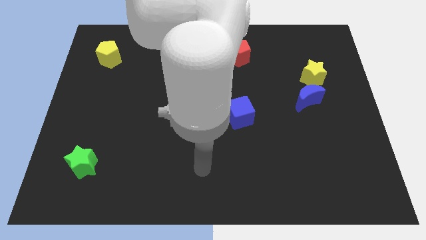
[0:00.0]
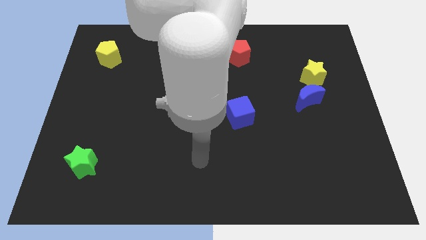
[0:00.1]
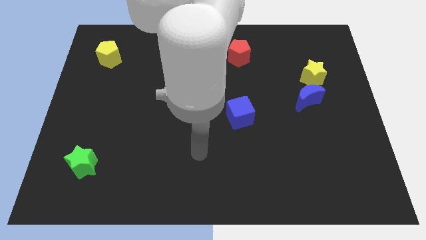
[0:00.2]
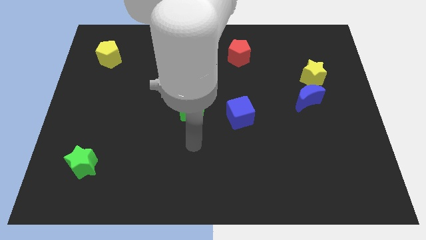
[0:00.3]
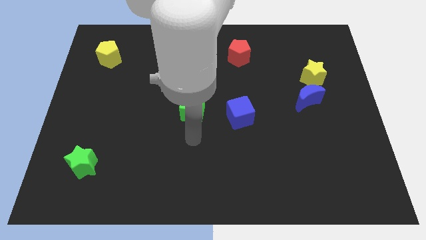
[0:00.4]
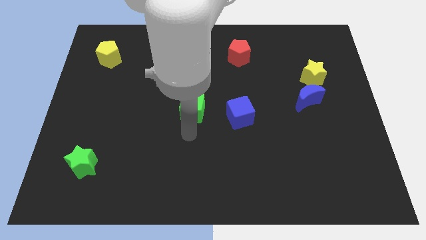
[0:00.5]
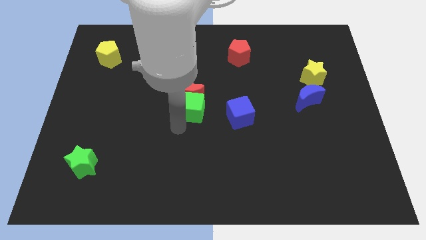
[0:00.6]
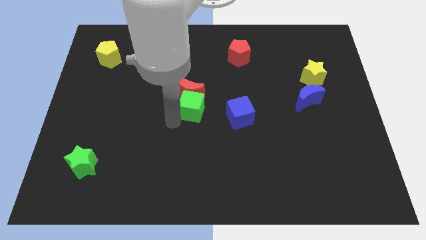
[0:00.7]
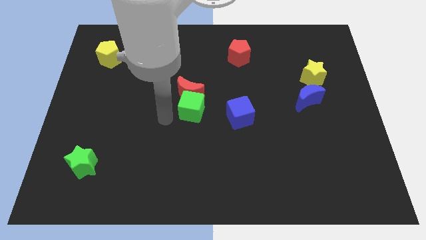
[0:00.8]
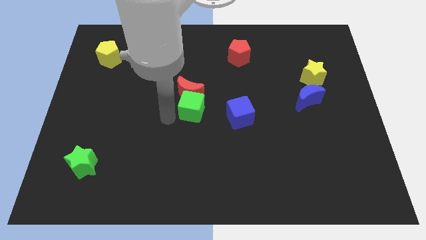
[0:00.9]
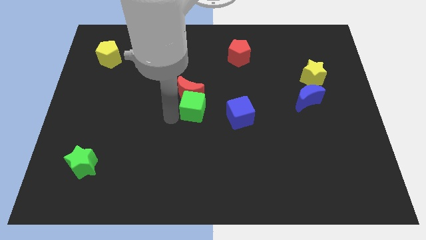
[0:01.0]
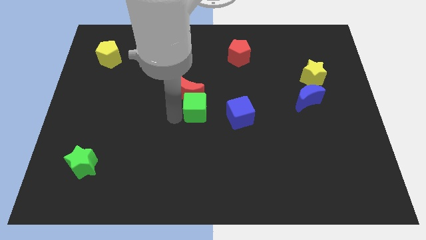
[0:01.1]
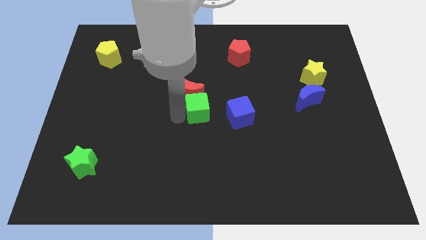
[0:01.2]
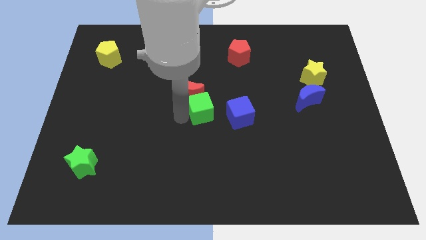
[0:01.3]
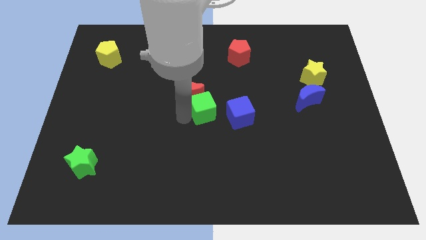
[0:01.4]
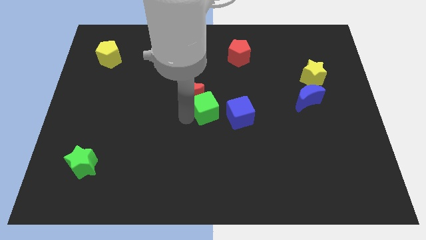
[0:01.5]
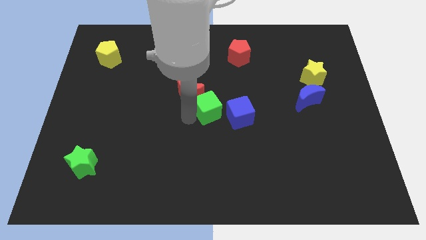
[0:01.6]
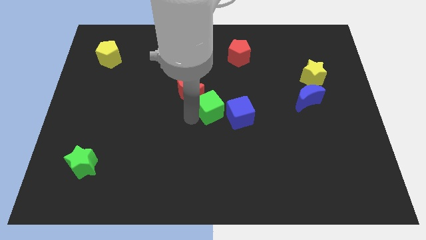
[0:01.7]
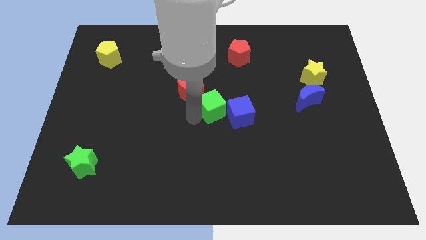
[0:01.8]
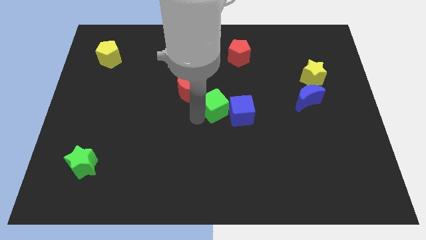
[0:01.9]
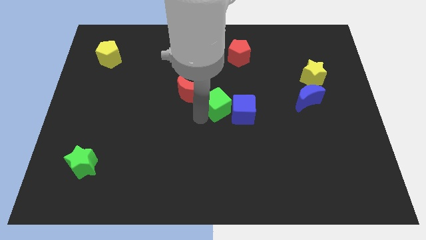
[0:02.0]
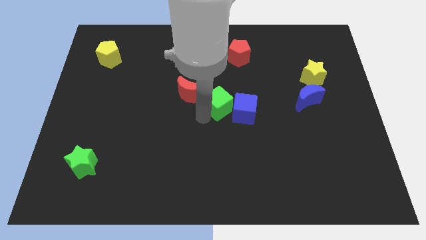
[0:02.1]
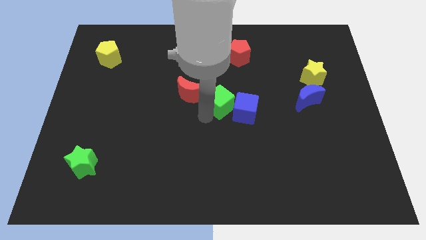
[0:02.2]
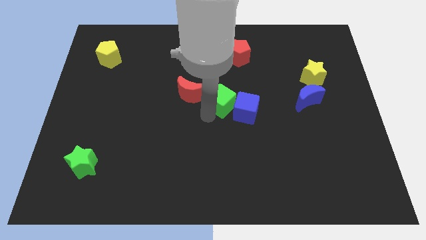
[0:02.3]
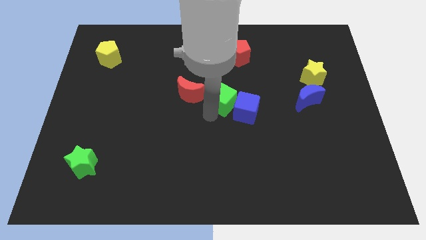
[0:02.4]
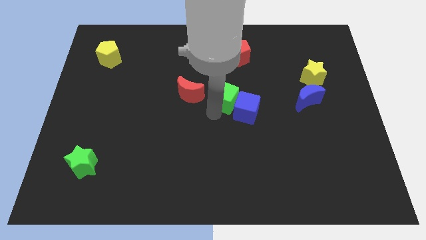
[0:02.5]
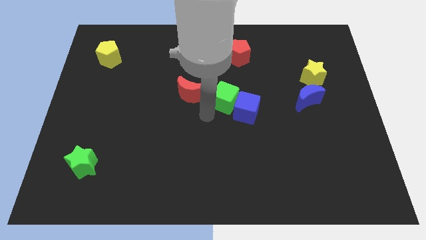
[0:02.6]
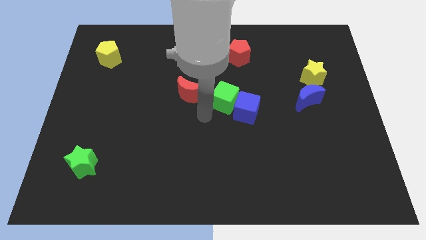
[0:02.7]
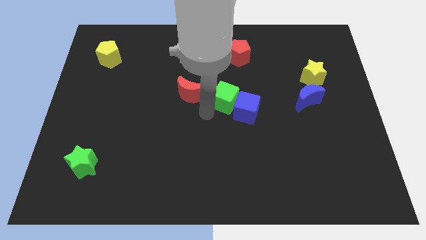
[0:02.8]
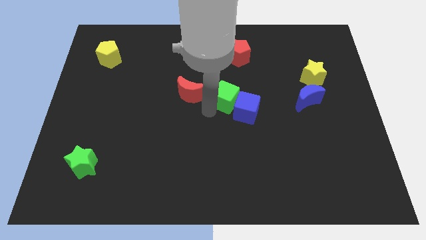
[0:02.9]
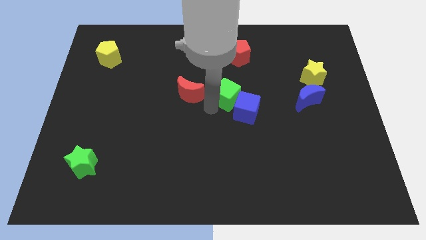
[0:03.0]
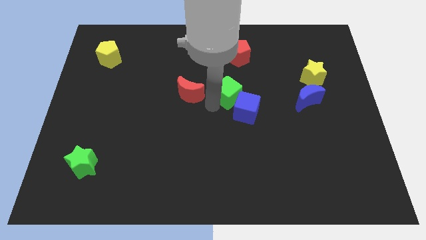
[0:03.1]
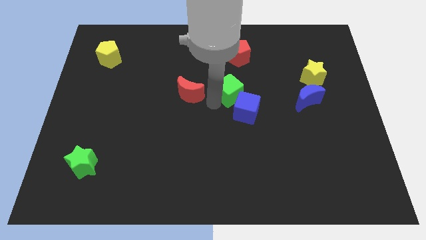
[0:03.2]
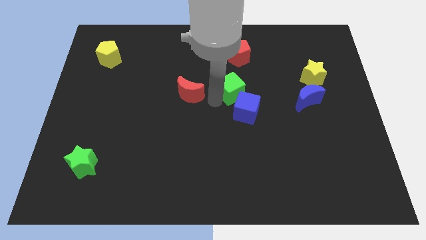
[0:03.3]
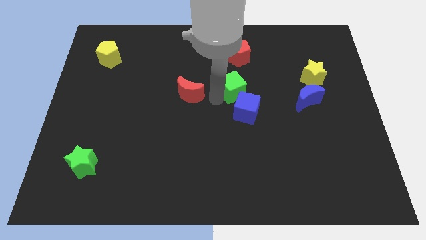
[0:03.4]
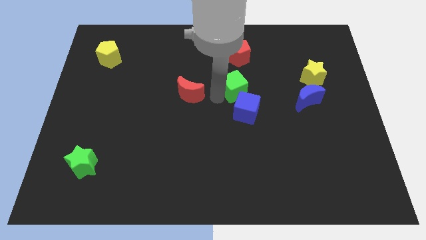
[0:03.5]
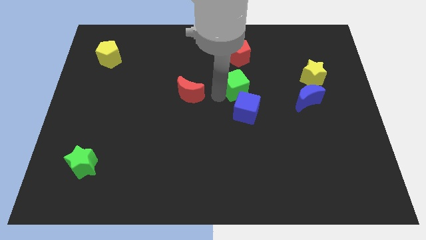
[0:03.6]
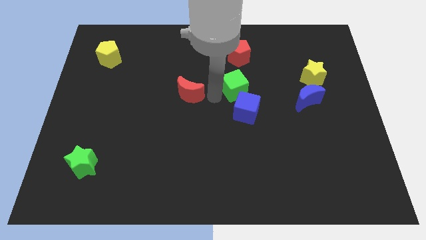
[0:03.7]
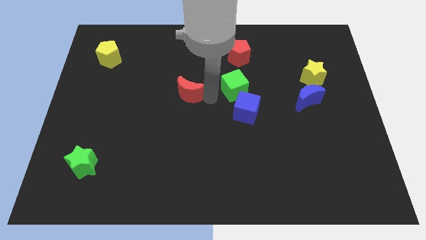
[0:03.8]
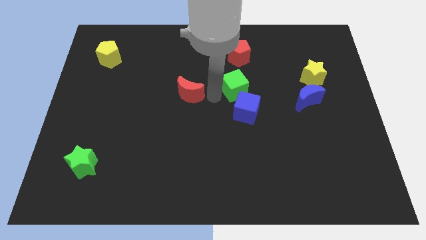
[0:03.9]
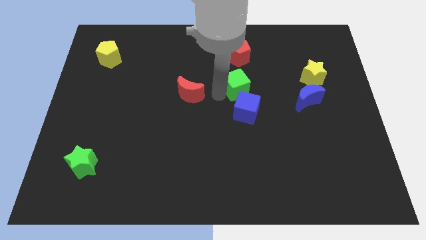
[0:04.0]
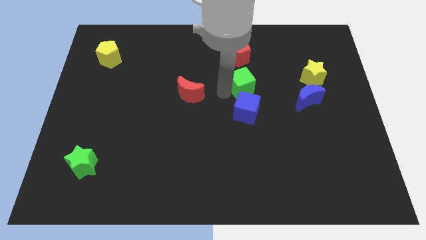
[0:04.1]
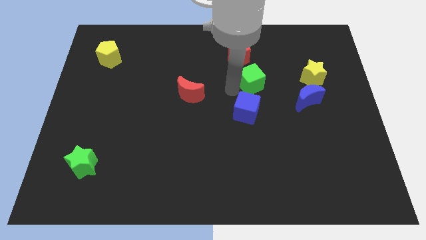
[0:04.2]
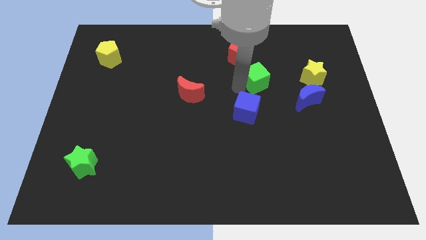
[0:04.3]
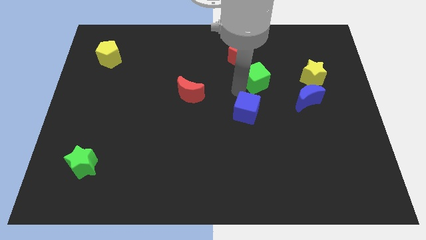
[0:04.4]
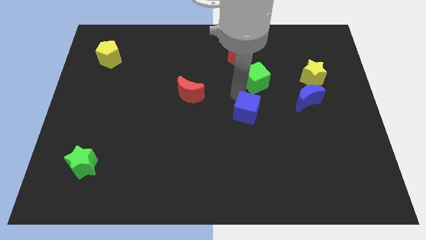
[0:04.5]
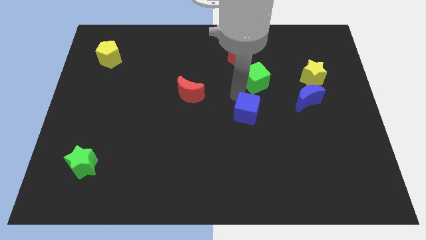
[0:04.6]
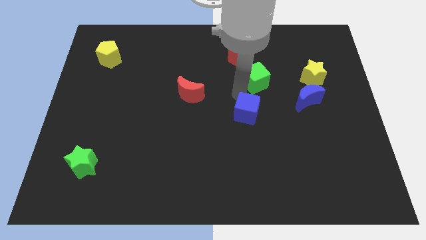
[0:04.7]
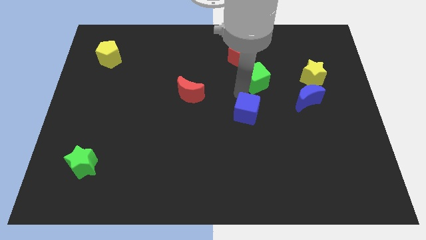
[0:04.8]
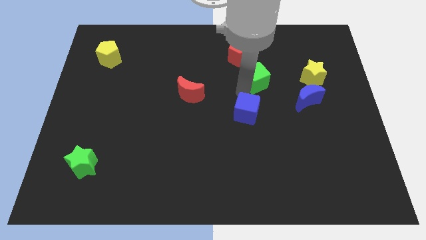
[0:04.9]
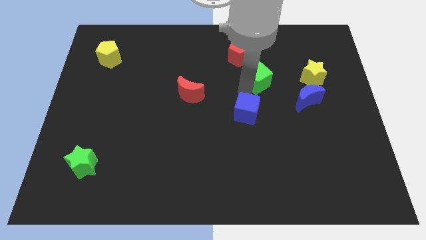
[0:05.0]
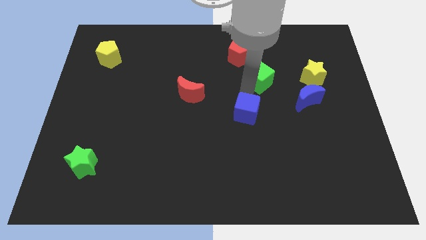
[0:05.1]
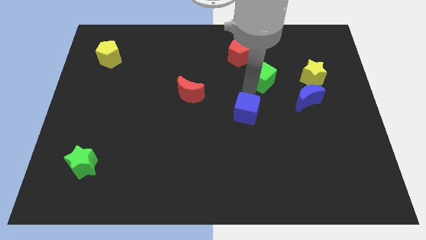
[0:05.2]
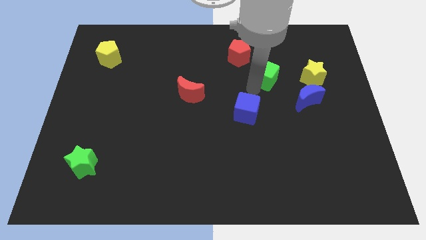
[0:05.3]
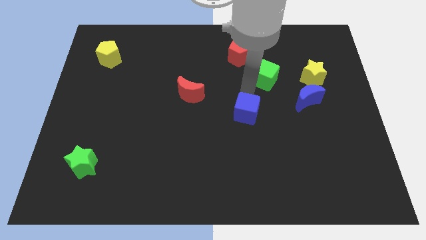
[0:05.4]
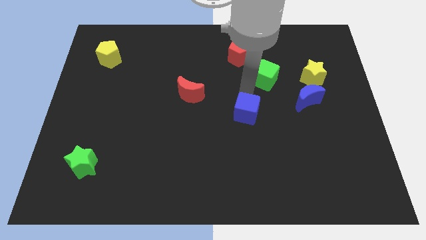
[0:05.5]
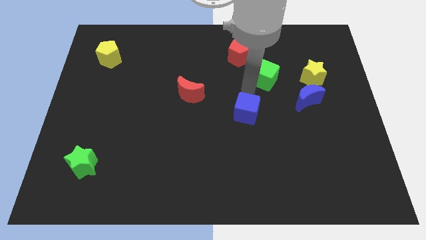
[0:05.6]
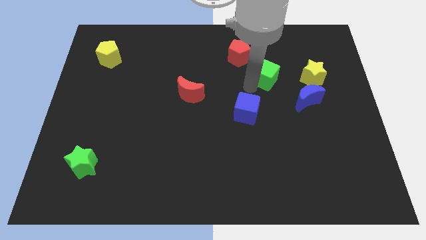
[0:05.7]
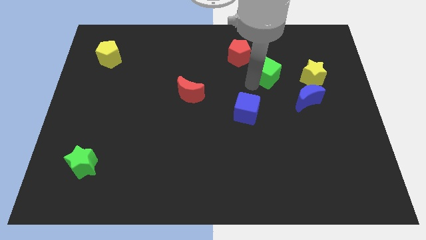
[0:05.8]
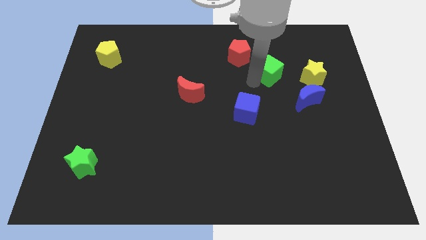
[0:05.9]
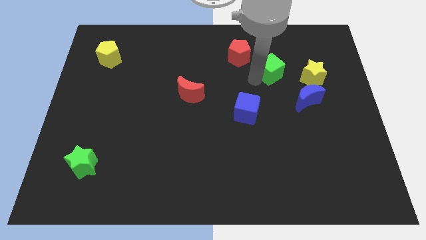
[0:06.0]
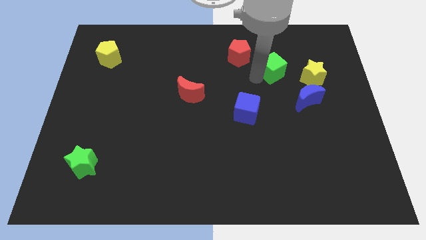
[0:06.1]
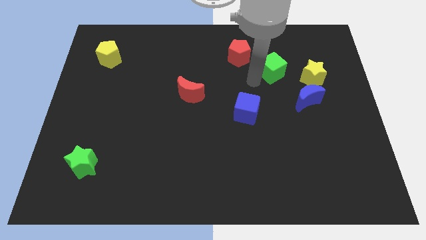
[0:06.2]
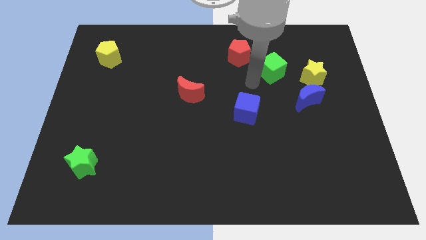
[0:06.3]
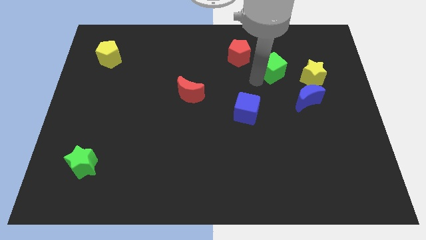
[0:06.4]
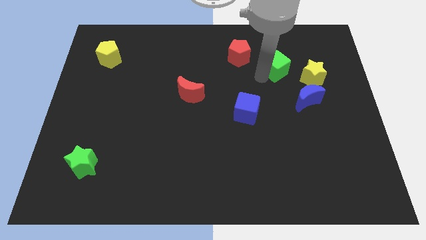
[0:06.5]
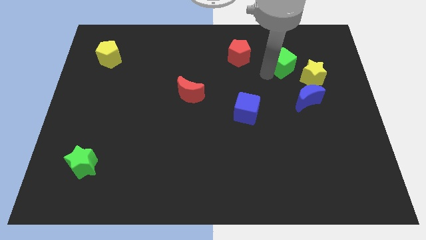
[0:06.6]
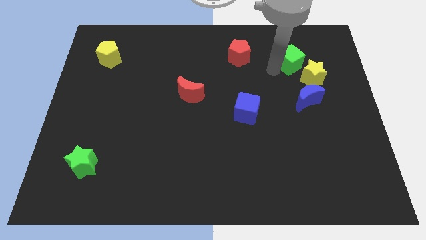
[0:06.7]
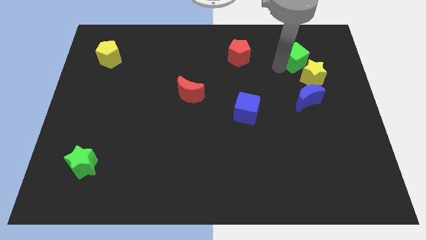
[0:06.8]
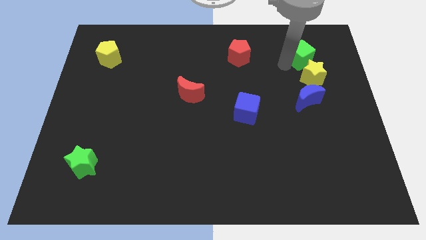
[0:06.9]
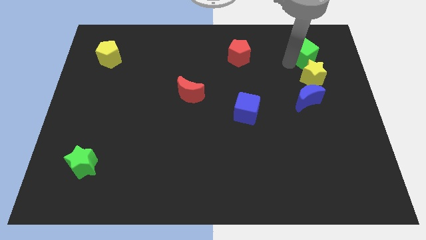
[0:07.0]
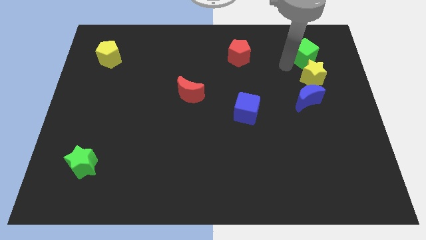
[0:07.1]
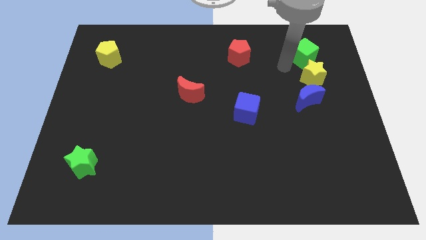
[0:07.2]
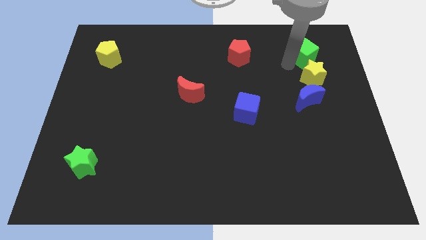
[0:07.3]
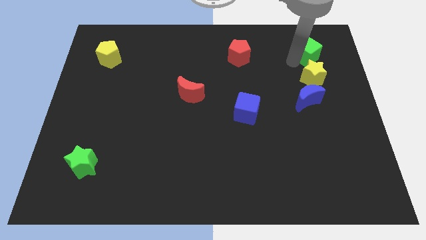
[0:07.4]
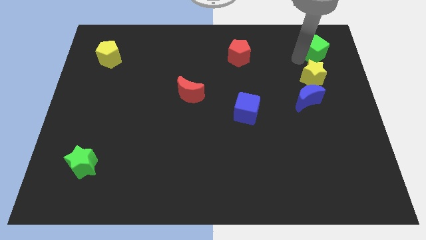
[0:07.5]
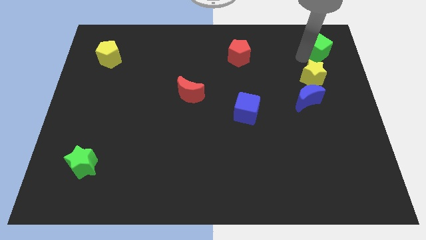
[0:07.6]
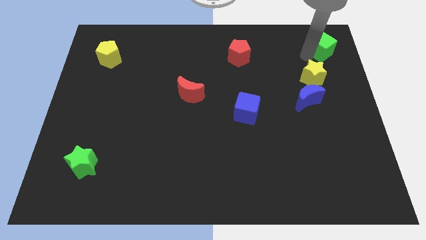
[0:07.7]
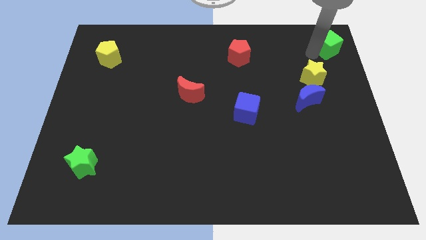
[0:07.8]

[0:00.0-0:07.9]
put the green cube to the top right
